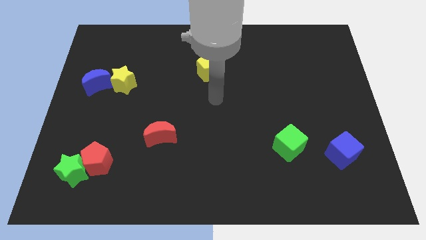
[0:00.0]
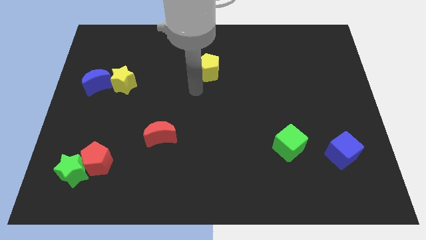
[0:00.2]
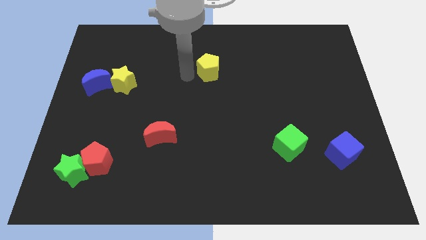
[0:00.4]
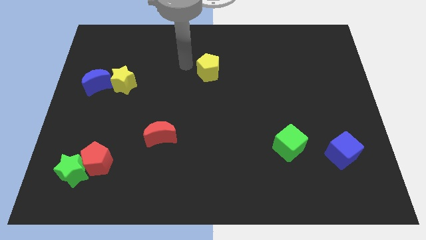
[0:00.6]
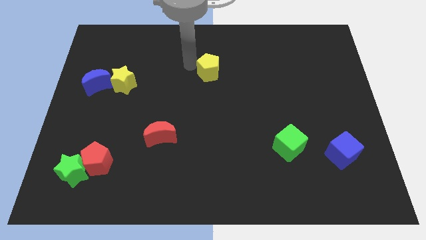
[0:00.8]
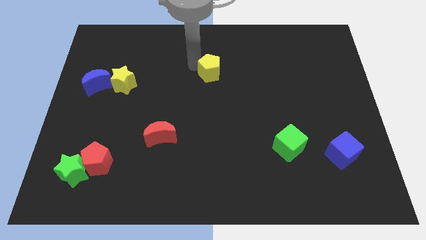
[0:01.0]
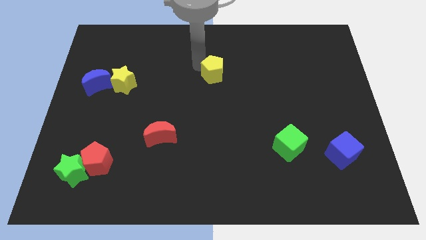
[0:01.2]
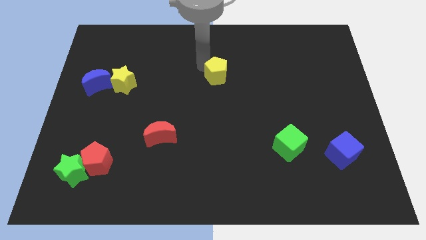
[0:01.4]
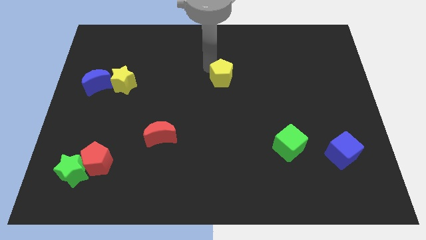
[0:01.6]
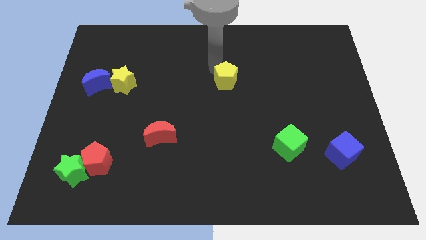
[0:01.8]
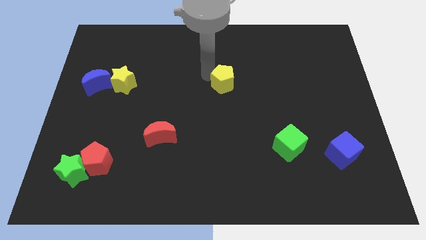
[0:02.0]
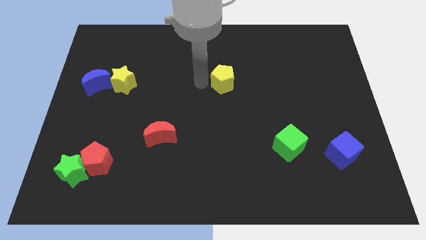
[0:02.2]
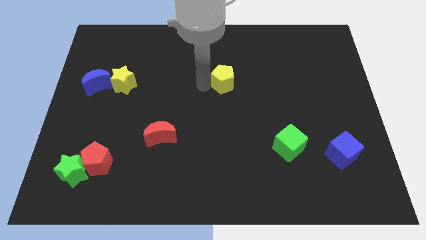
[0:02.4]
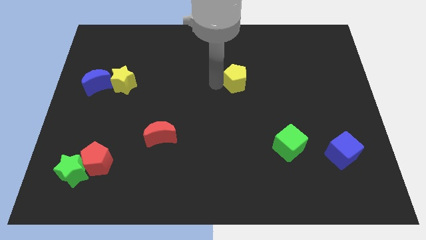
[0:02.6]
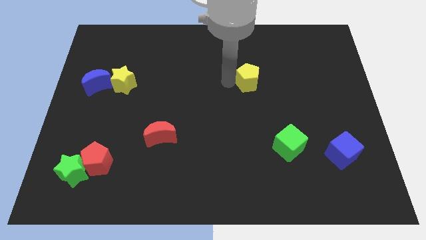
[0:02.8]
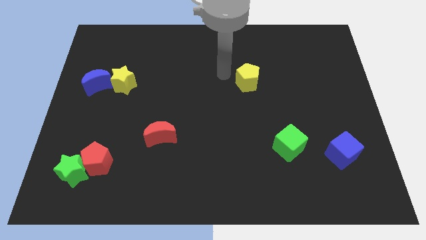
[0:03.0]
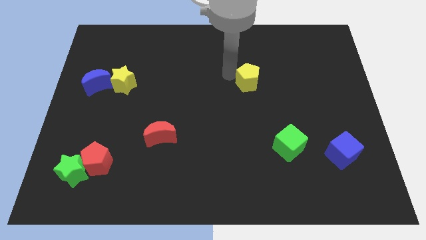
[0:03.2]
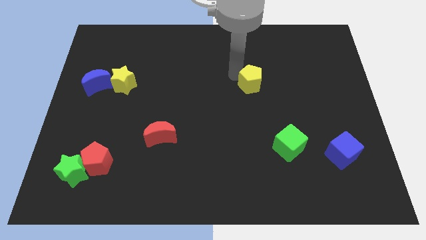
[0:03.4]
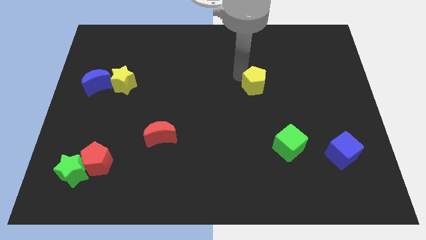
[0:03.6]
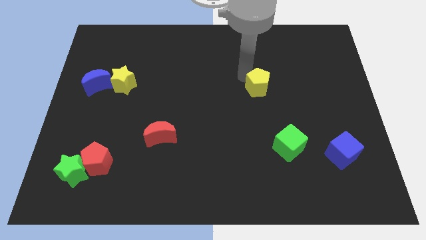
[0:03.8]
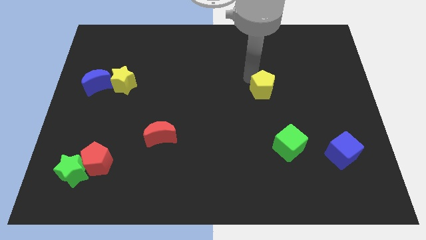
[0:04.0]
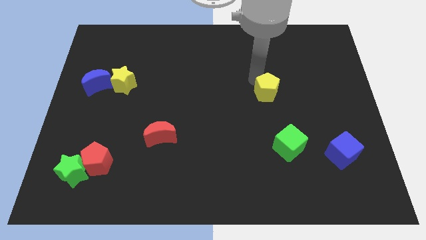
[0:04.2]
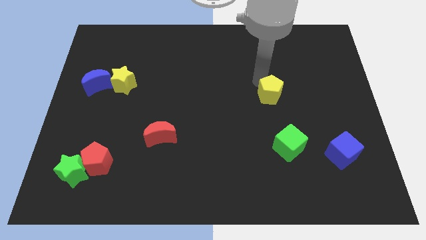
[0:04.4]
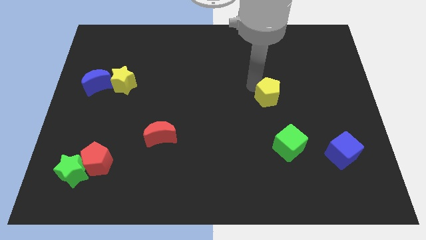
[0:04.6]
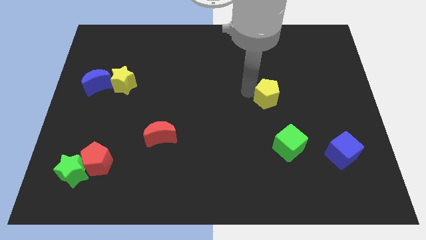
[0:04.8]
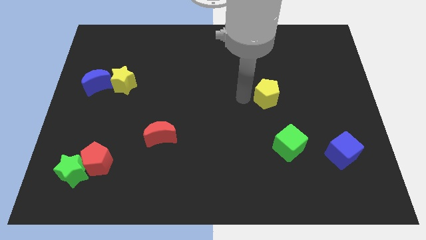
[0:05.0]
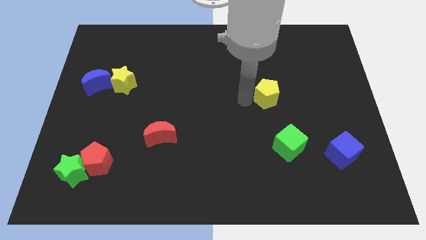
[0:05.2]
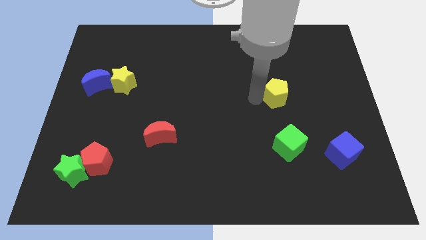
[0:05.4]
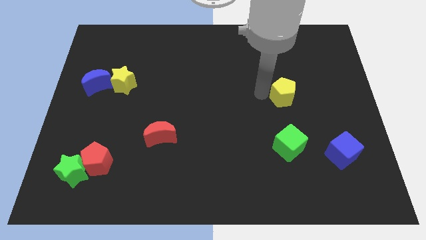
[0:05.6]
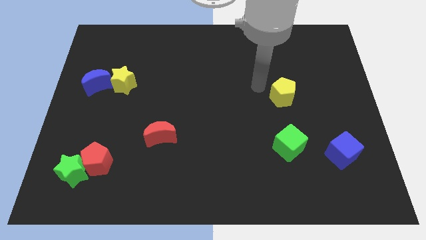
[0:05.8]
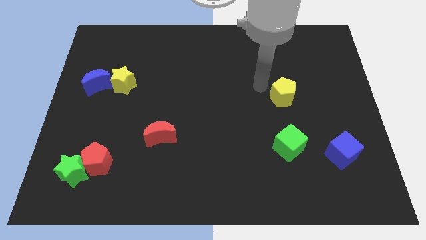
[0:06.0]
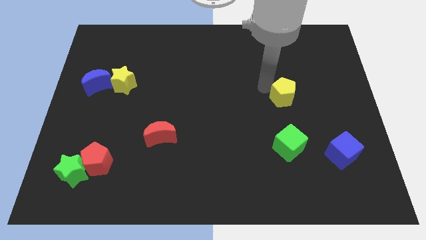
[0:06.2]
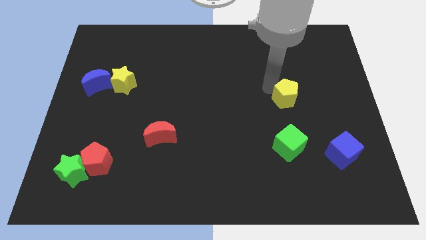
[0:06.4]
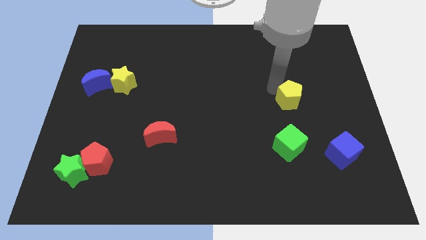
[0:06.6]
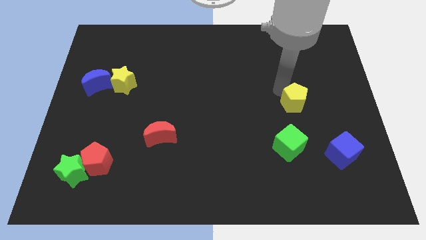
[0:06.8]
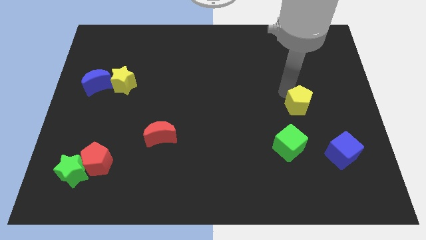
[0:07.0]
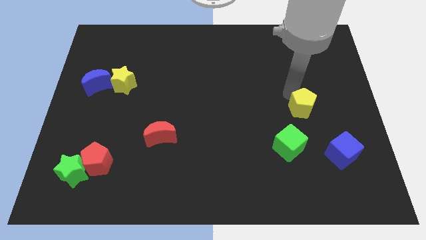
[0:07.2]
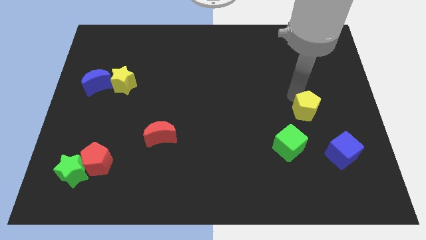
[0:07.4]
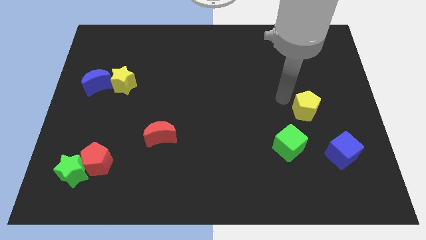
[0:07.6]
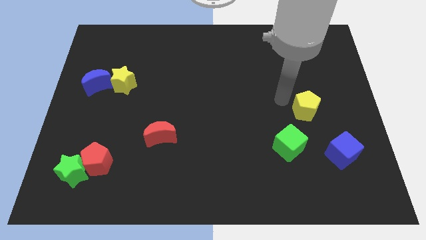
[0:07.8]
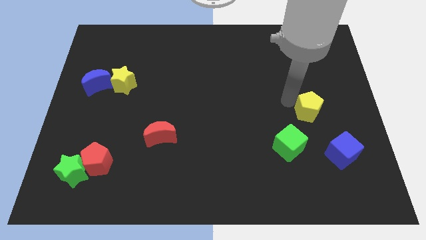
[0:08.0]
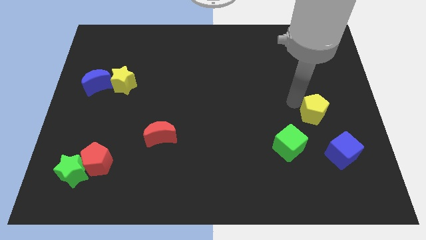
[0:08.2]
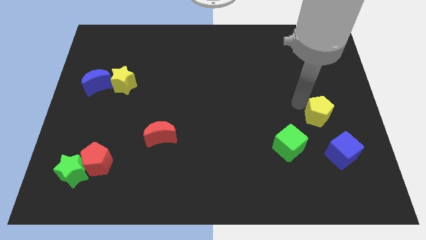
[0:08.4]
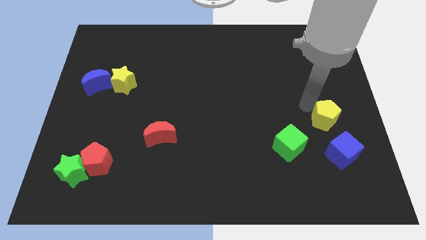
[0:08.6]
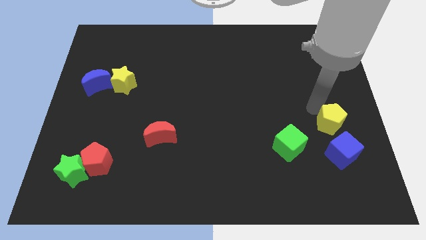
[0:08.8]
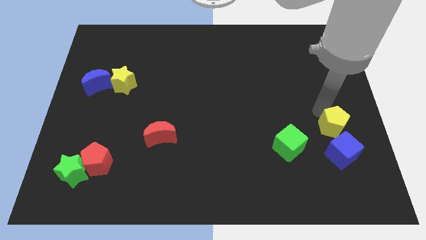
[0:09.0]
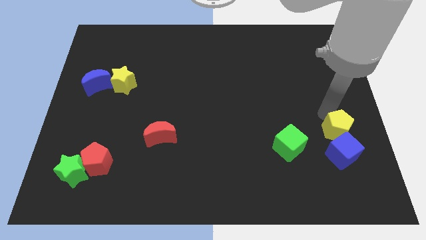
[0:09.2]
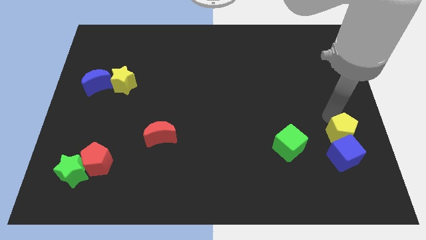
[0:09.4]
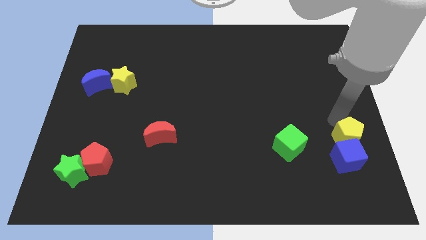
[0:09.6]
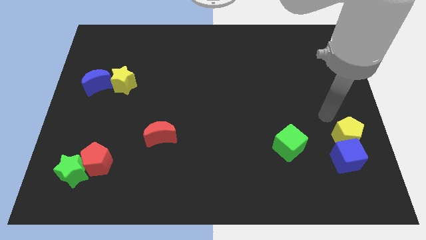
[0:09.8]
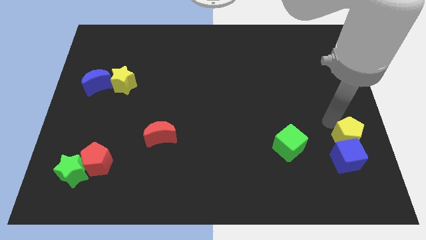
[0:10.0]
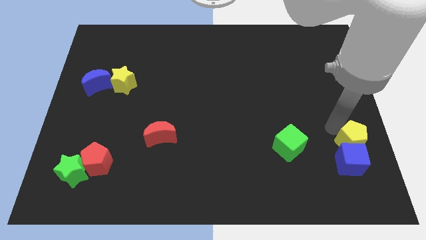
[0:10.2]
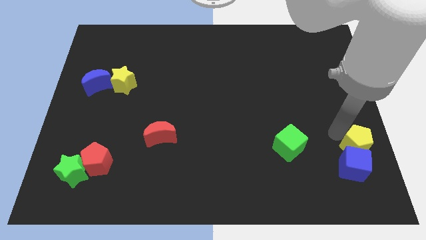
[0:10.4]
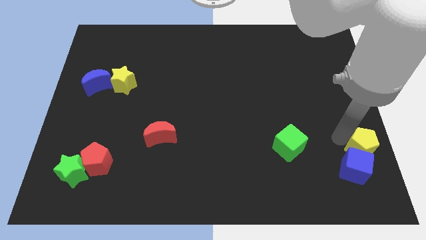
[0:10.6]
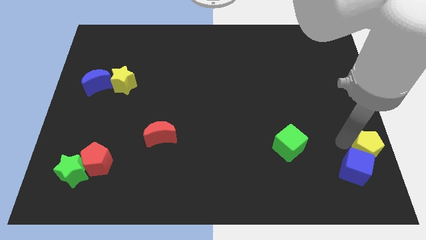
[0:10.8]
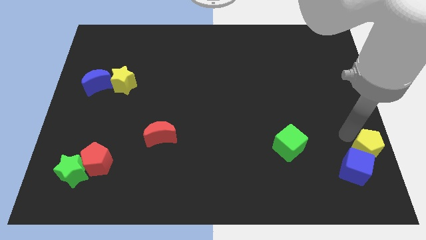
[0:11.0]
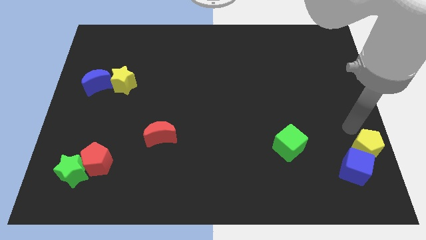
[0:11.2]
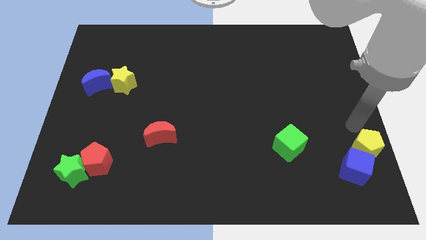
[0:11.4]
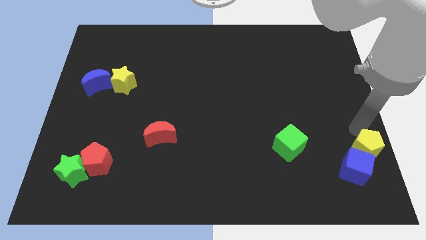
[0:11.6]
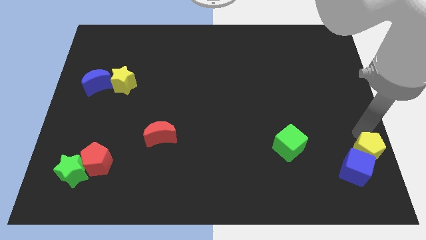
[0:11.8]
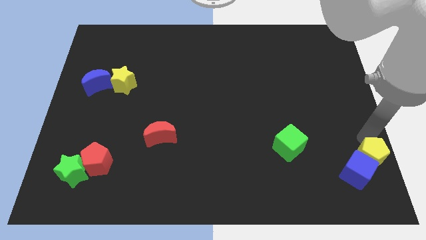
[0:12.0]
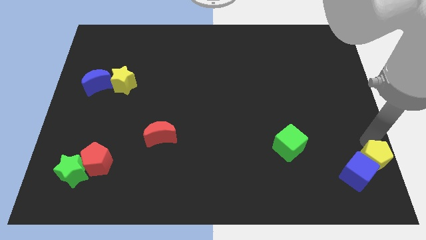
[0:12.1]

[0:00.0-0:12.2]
move the yellow pentagon to the lower right corner
